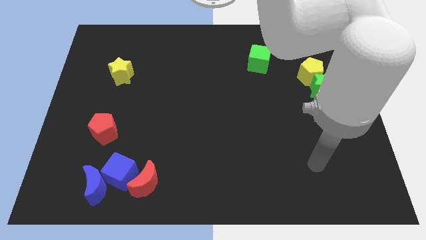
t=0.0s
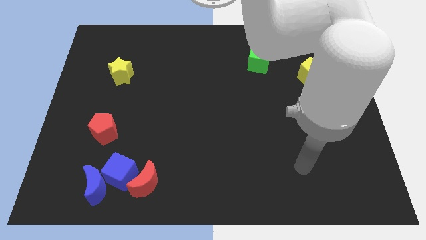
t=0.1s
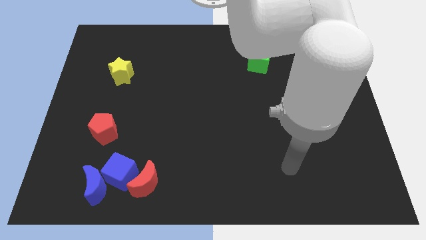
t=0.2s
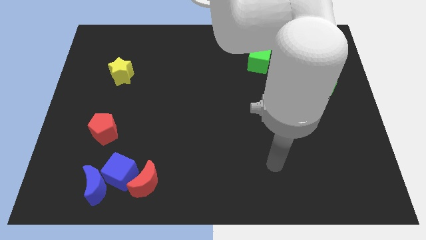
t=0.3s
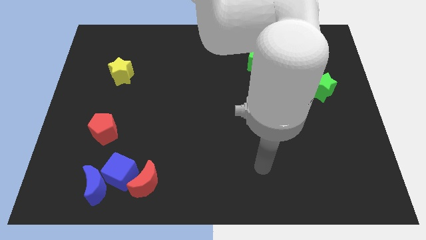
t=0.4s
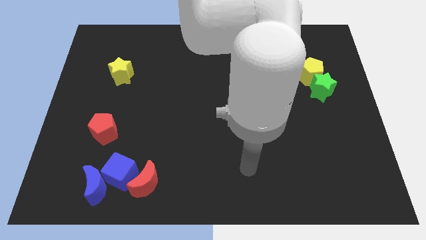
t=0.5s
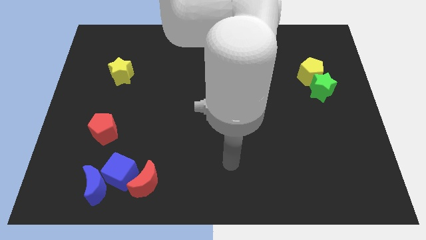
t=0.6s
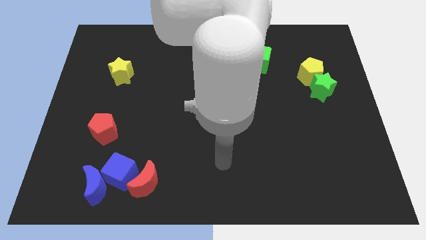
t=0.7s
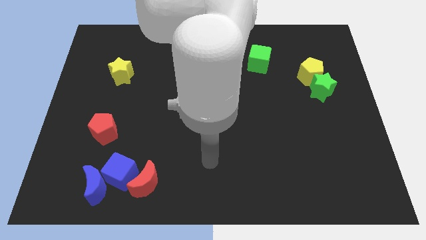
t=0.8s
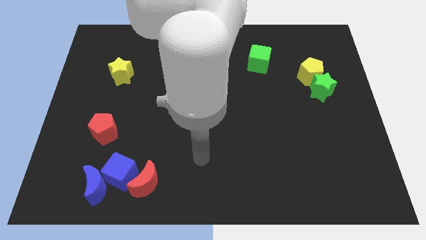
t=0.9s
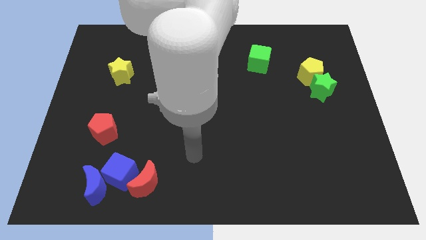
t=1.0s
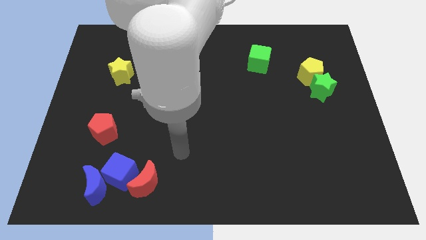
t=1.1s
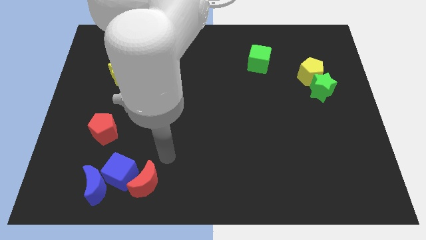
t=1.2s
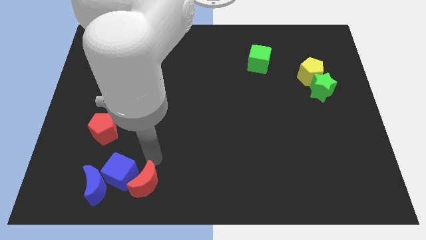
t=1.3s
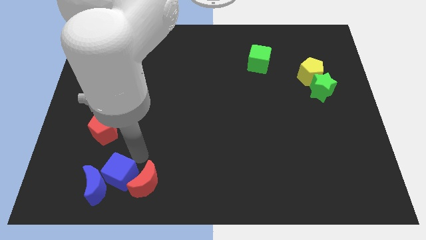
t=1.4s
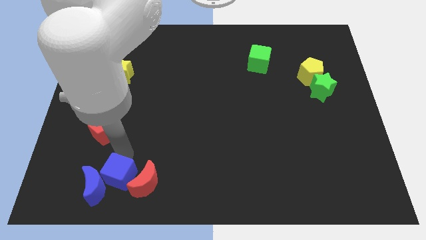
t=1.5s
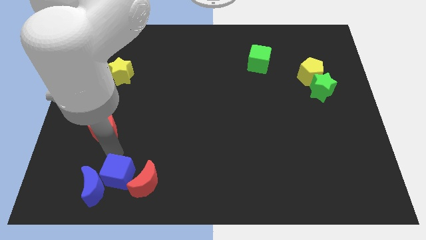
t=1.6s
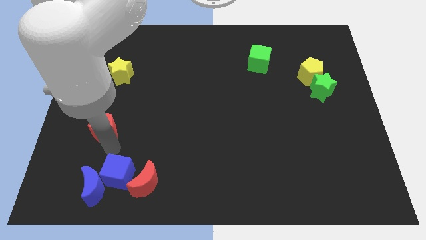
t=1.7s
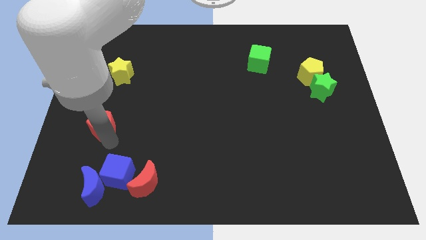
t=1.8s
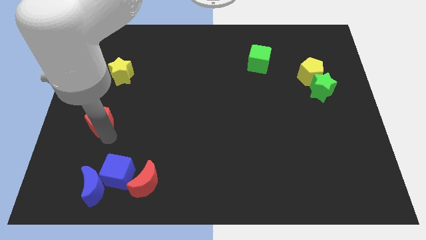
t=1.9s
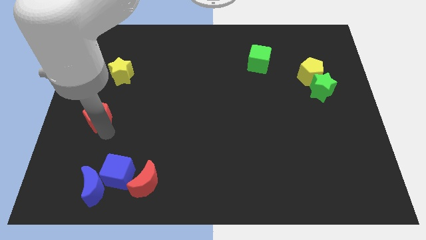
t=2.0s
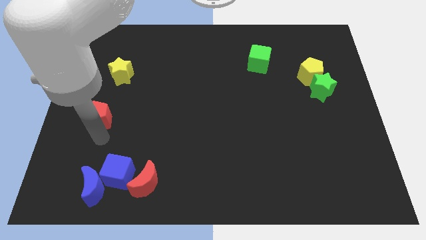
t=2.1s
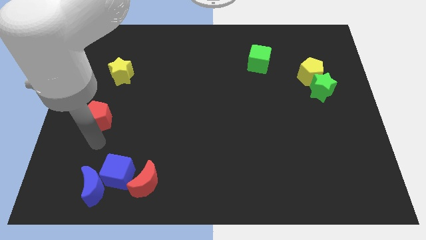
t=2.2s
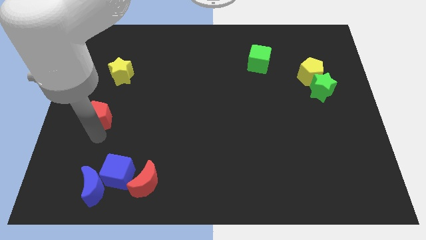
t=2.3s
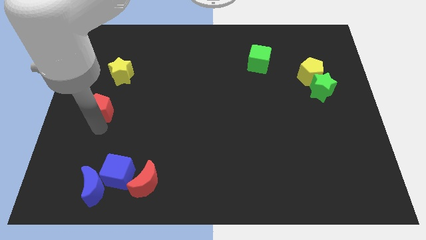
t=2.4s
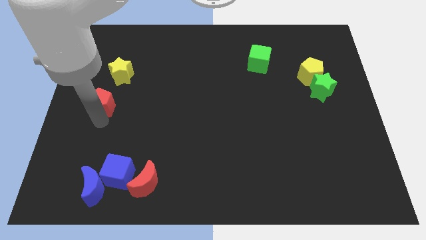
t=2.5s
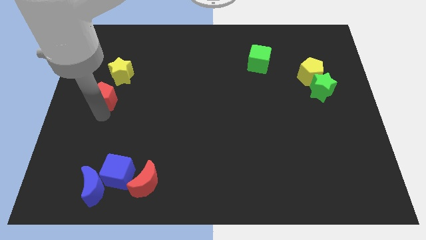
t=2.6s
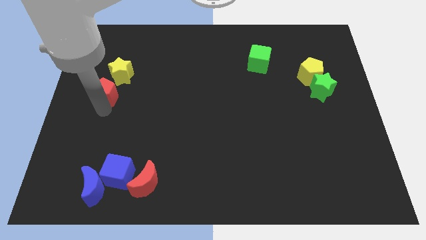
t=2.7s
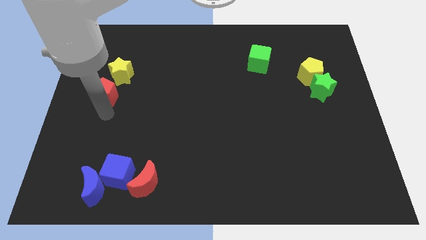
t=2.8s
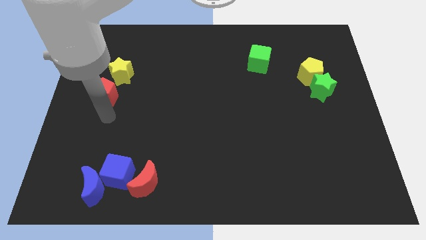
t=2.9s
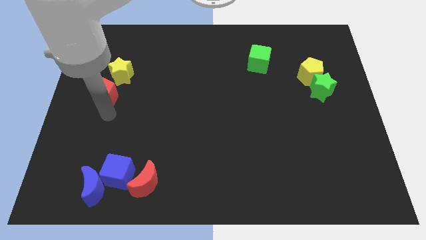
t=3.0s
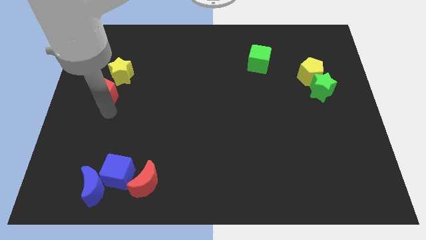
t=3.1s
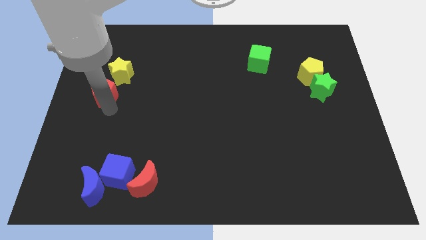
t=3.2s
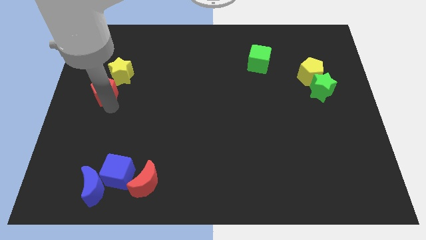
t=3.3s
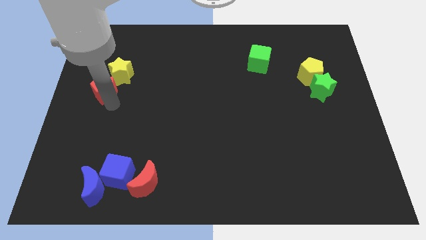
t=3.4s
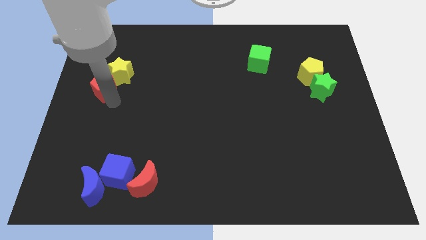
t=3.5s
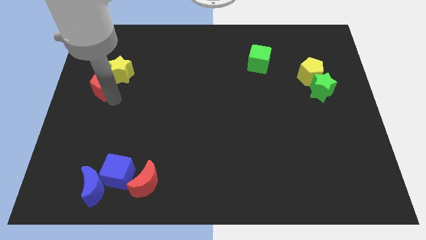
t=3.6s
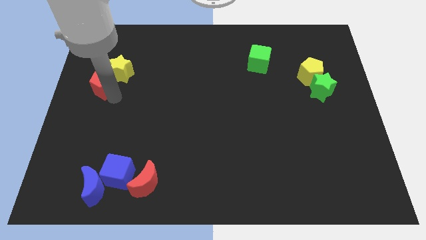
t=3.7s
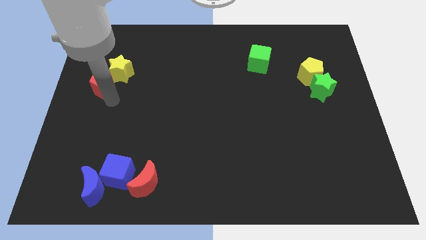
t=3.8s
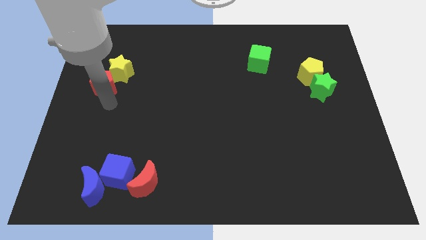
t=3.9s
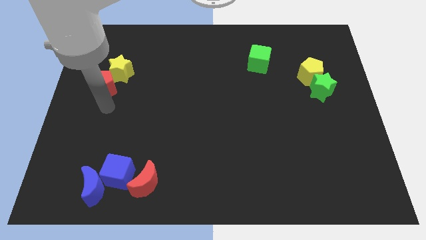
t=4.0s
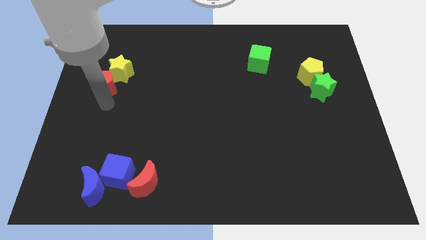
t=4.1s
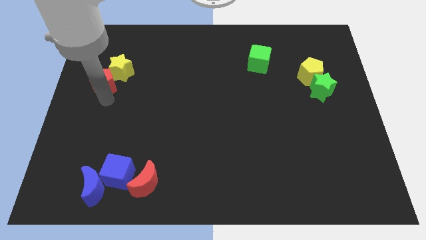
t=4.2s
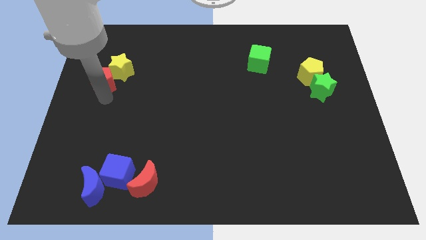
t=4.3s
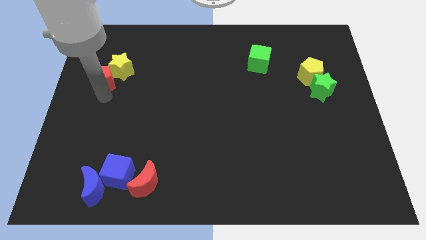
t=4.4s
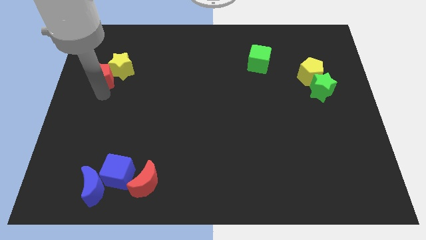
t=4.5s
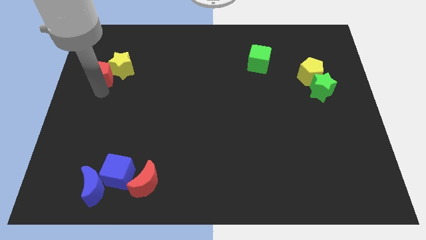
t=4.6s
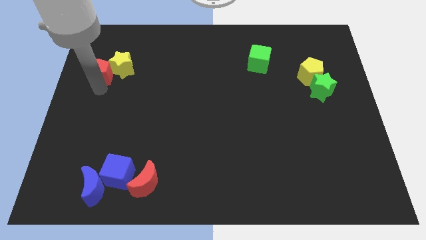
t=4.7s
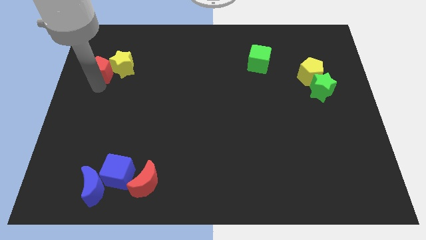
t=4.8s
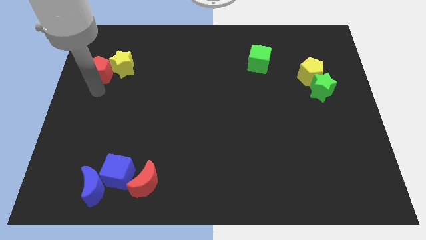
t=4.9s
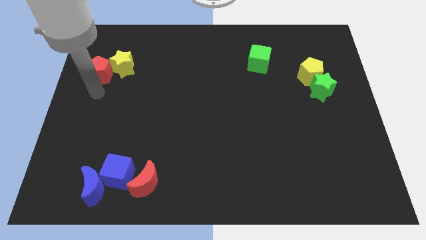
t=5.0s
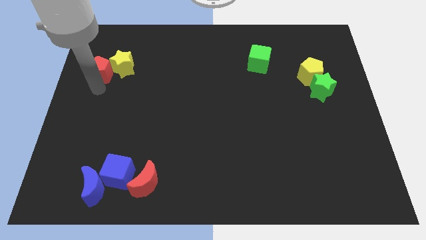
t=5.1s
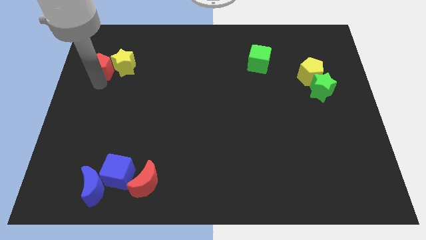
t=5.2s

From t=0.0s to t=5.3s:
put the red pentagon diagonally up and to the left of the yellow star
